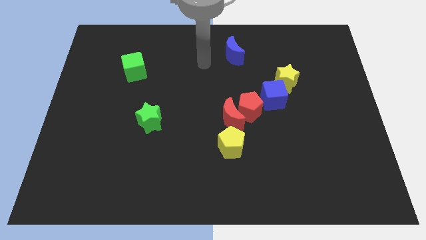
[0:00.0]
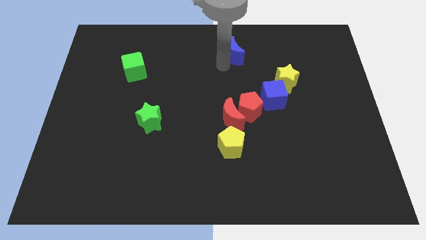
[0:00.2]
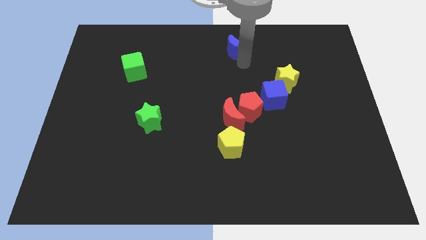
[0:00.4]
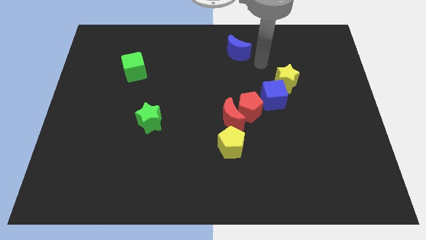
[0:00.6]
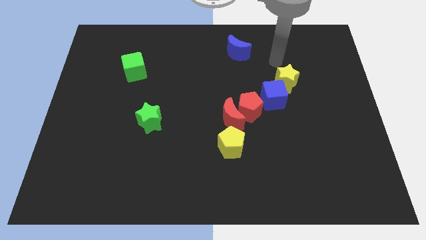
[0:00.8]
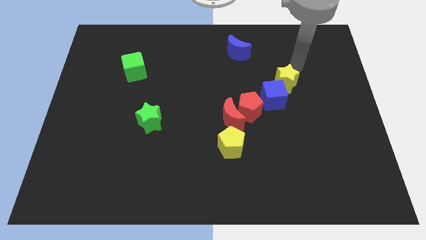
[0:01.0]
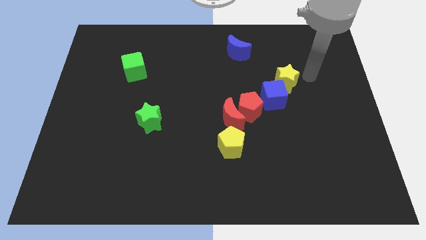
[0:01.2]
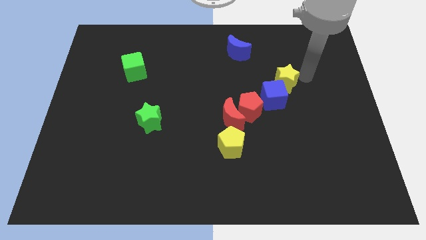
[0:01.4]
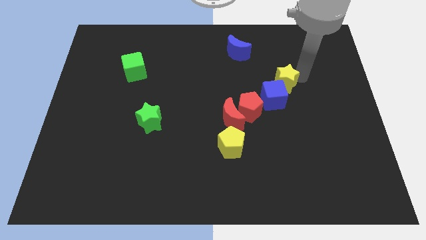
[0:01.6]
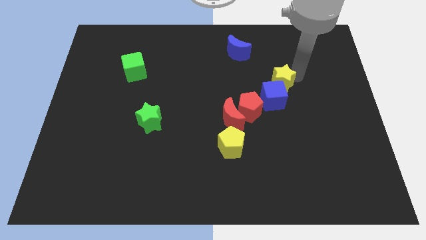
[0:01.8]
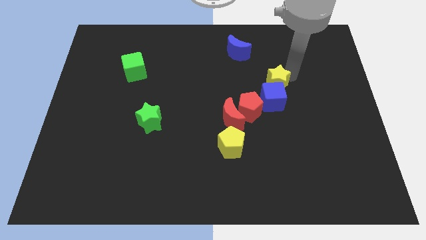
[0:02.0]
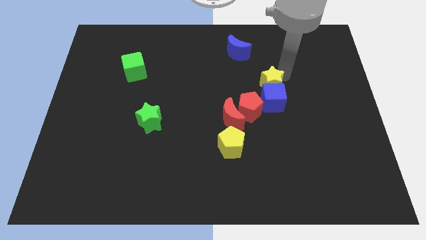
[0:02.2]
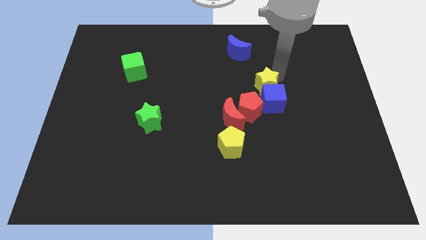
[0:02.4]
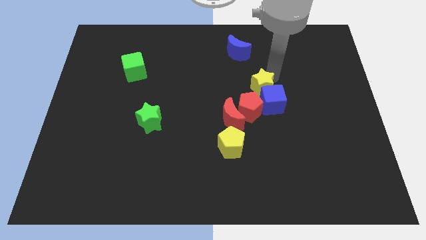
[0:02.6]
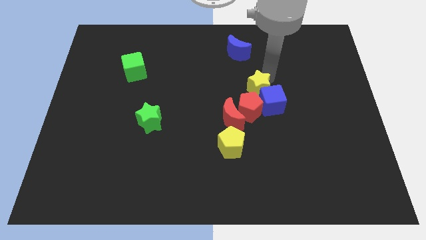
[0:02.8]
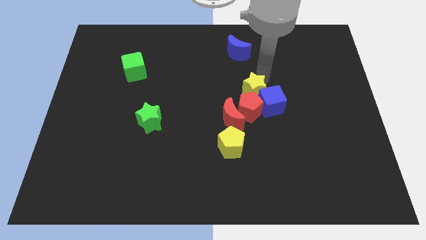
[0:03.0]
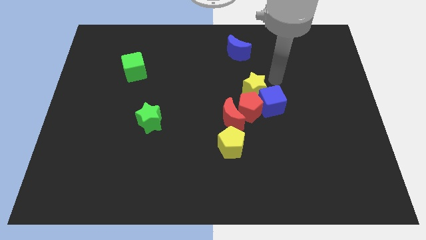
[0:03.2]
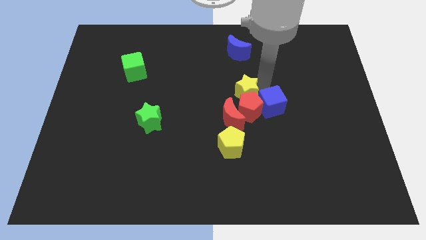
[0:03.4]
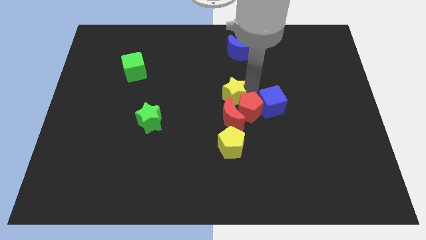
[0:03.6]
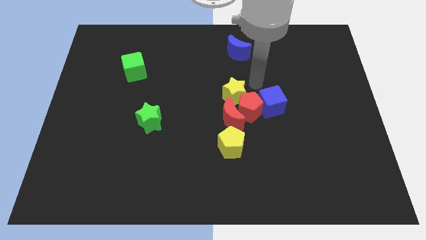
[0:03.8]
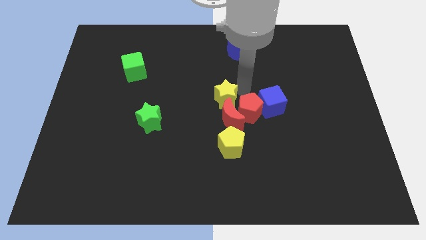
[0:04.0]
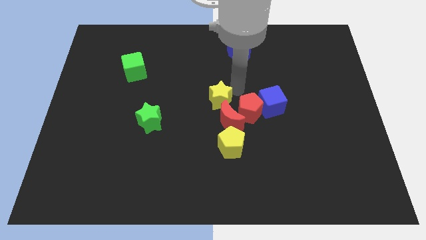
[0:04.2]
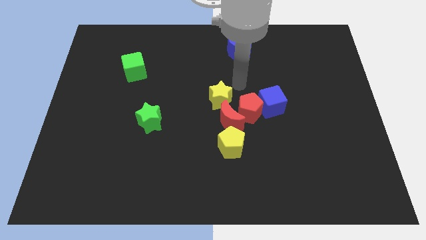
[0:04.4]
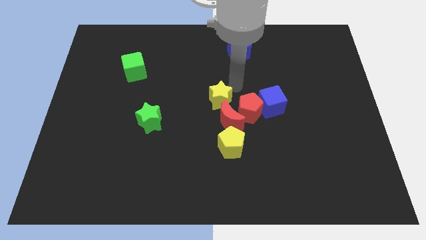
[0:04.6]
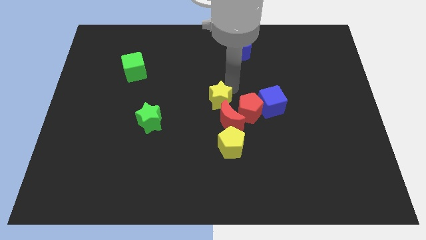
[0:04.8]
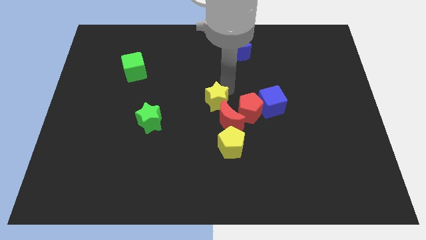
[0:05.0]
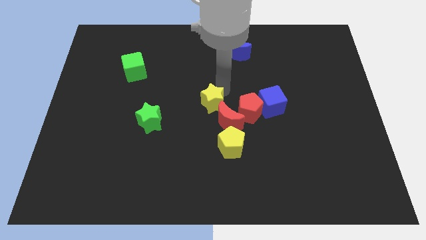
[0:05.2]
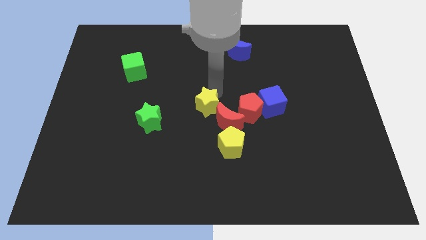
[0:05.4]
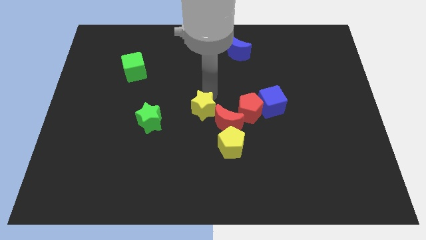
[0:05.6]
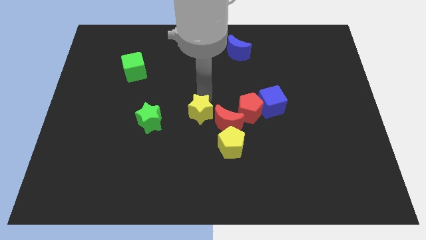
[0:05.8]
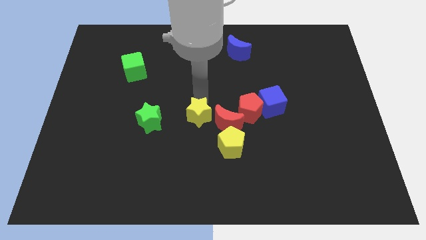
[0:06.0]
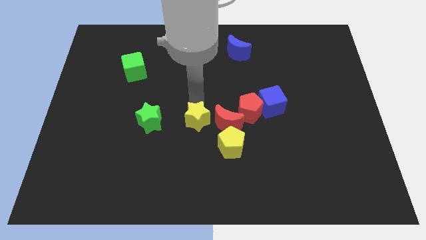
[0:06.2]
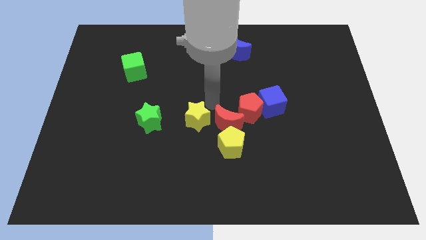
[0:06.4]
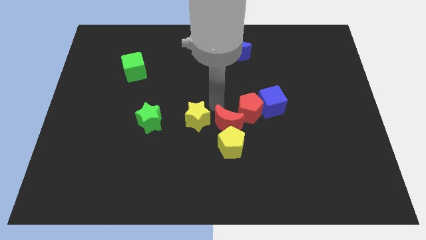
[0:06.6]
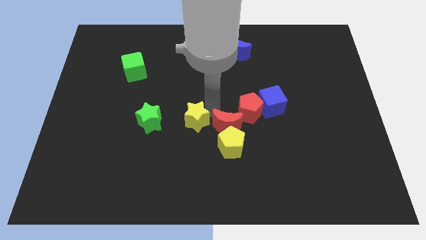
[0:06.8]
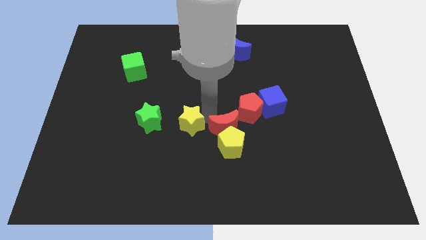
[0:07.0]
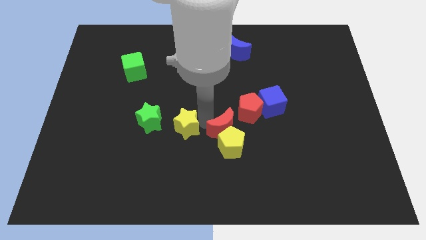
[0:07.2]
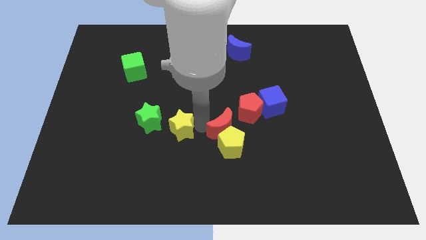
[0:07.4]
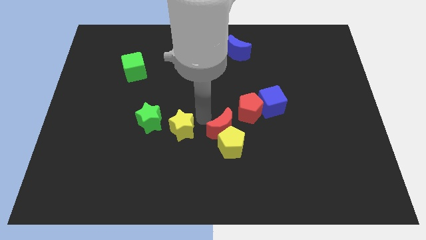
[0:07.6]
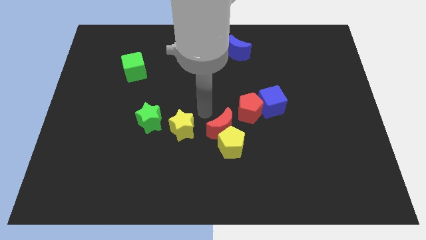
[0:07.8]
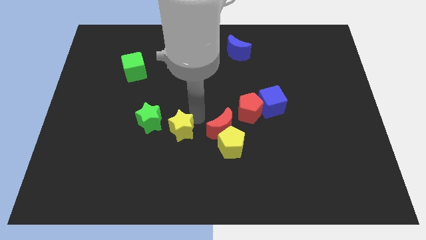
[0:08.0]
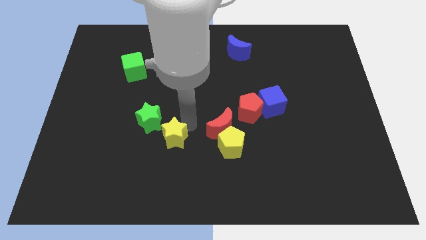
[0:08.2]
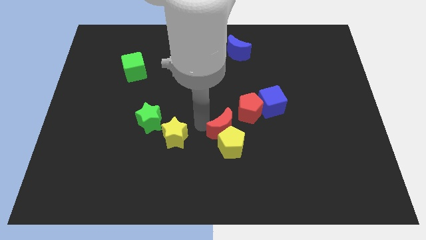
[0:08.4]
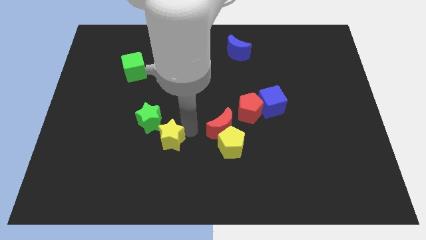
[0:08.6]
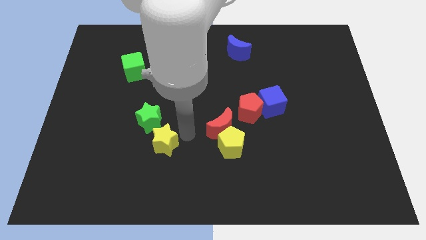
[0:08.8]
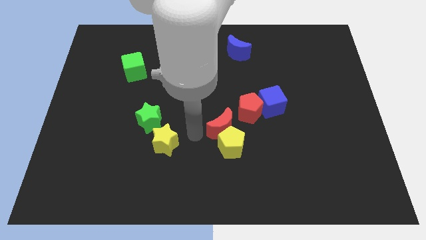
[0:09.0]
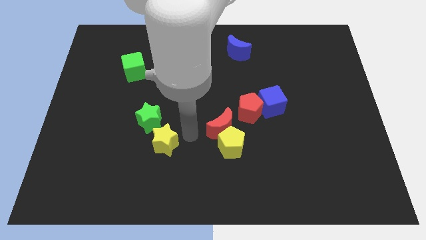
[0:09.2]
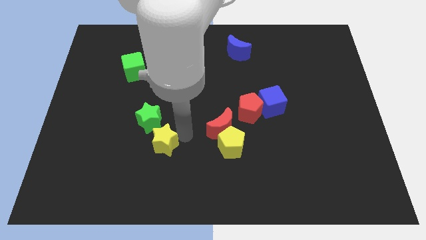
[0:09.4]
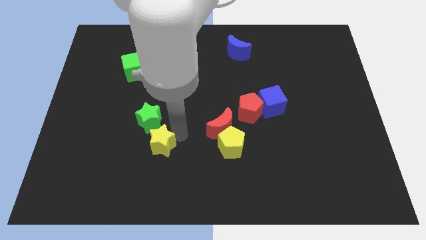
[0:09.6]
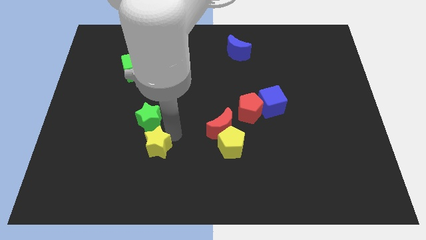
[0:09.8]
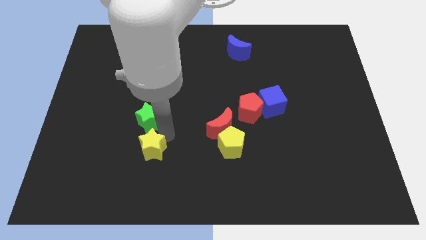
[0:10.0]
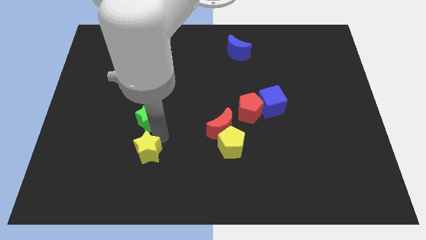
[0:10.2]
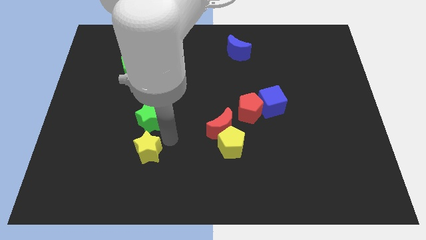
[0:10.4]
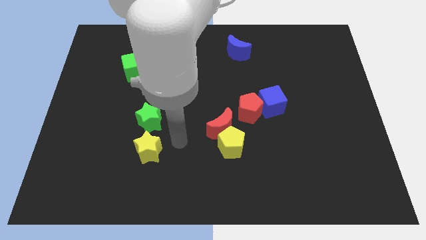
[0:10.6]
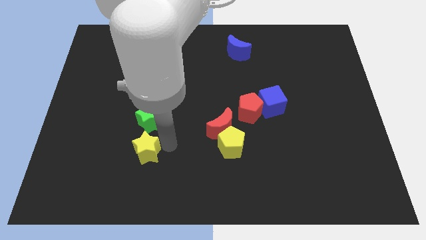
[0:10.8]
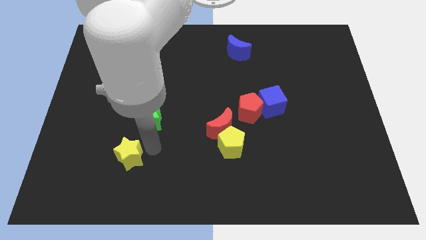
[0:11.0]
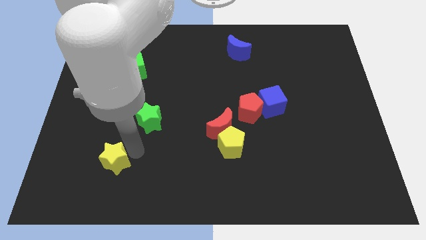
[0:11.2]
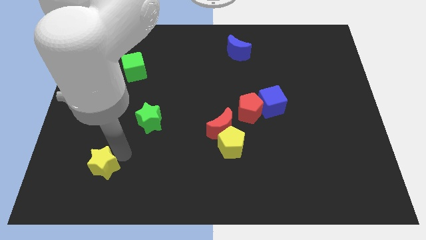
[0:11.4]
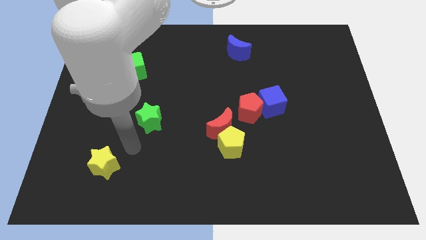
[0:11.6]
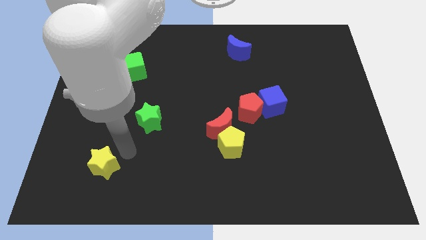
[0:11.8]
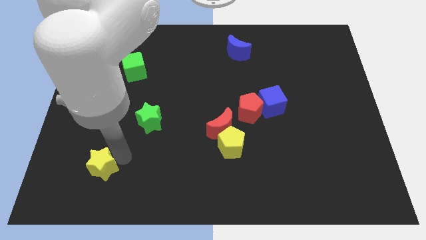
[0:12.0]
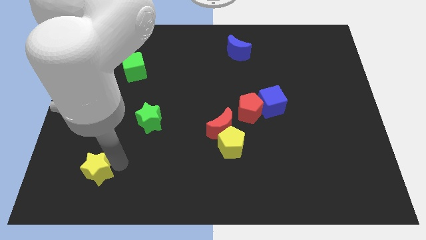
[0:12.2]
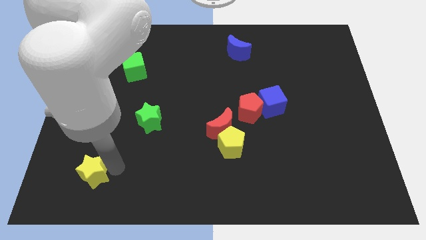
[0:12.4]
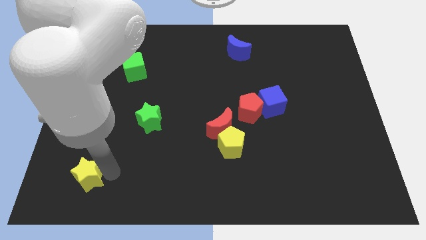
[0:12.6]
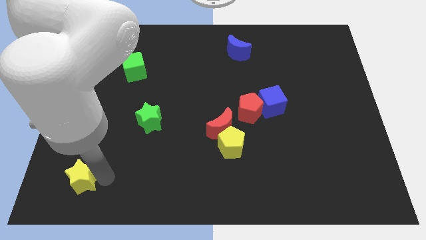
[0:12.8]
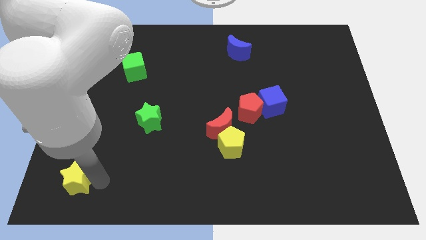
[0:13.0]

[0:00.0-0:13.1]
move the yellow star to the bottom left of the board
